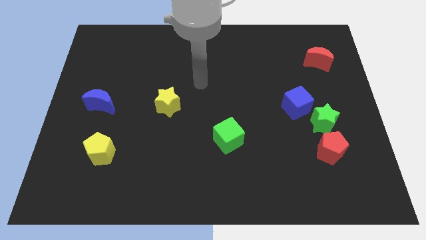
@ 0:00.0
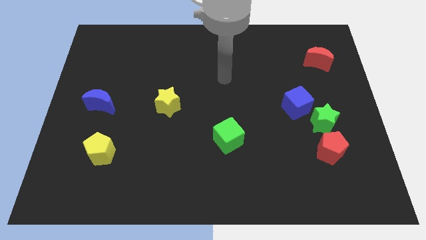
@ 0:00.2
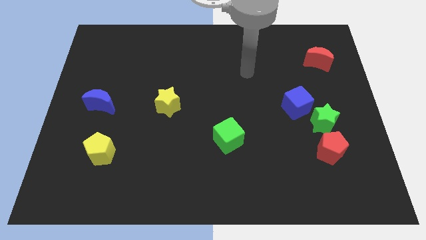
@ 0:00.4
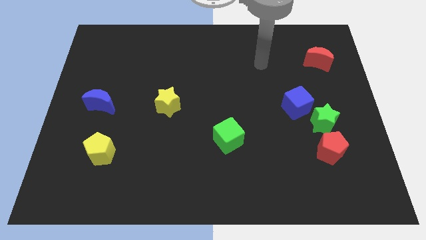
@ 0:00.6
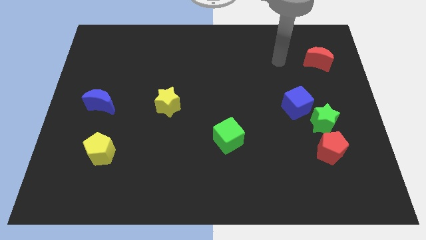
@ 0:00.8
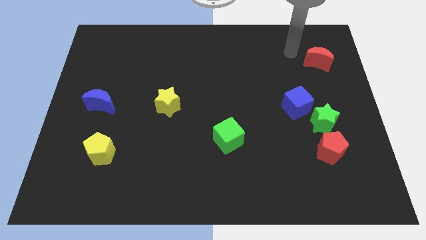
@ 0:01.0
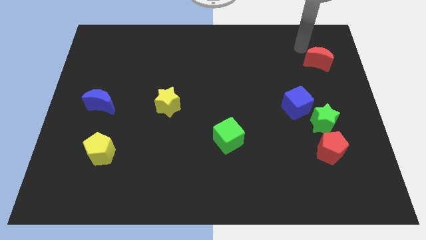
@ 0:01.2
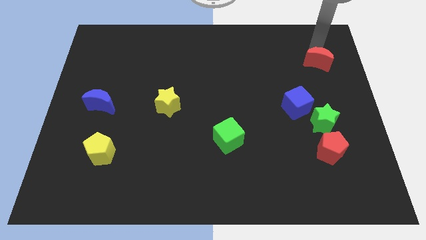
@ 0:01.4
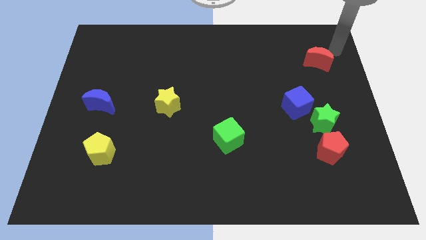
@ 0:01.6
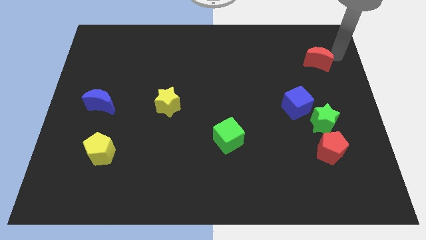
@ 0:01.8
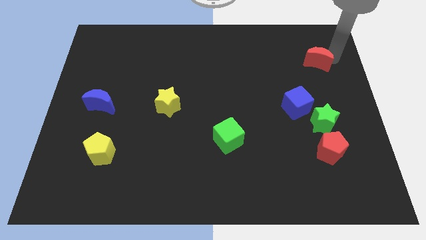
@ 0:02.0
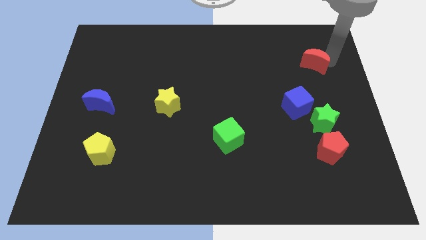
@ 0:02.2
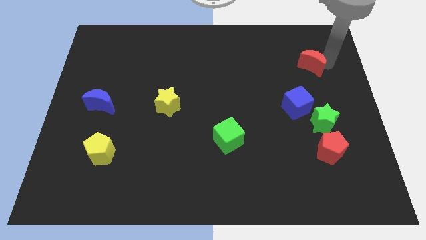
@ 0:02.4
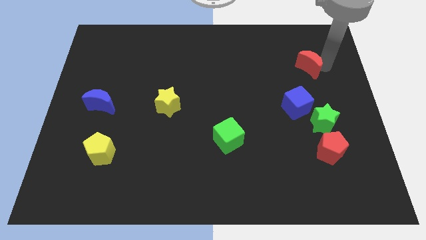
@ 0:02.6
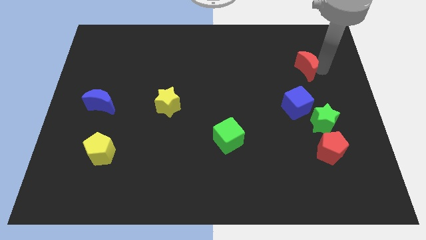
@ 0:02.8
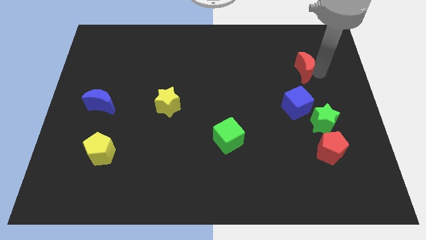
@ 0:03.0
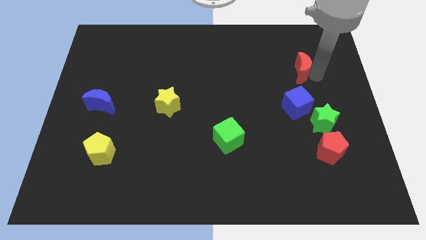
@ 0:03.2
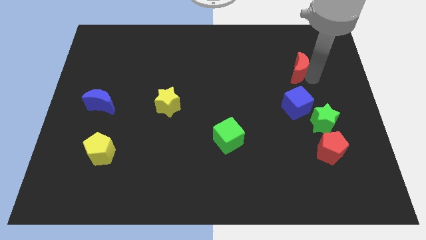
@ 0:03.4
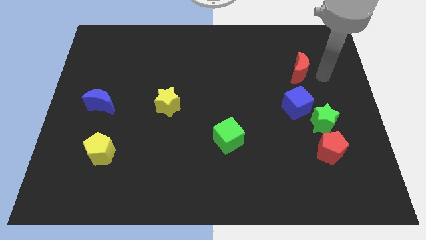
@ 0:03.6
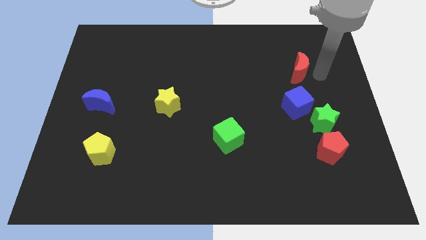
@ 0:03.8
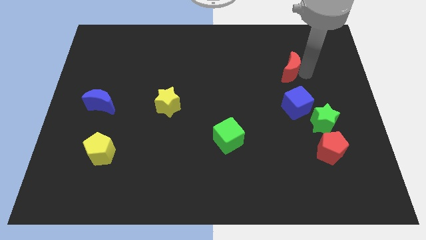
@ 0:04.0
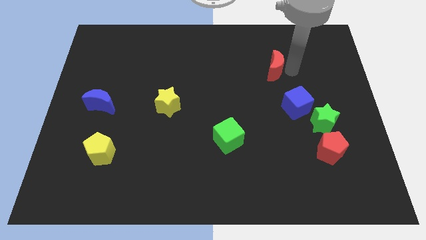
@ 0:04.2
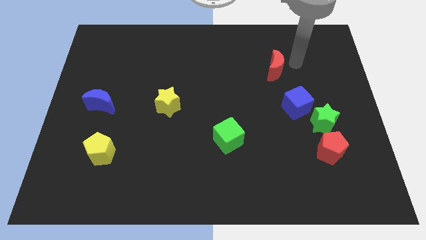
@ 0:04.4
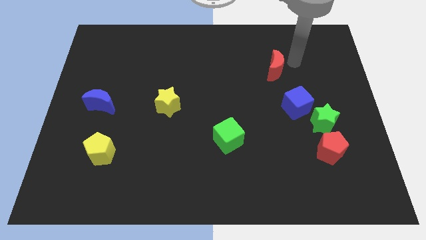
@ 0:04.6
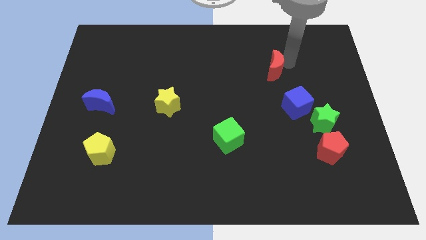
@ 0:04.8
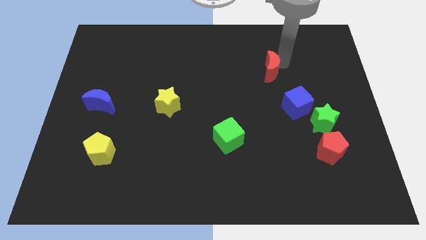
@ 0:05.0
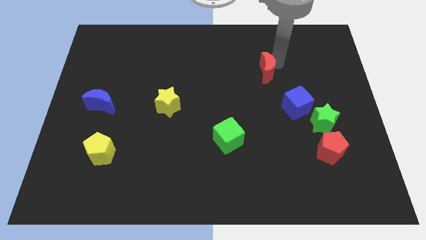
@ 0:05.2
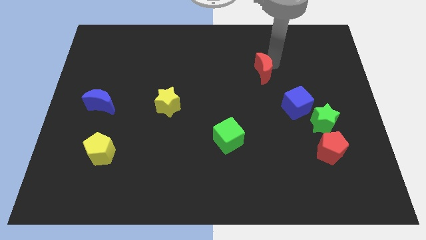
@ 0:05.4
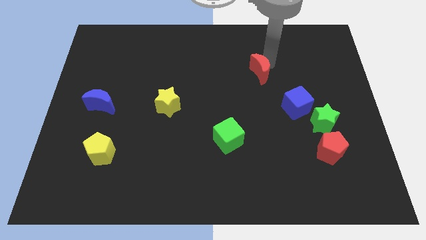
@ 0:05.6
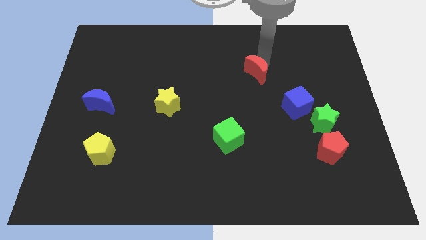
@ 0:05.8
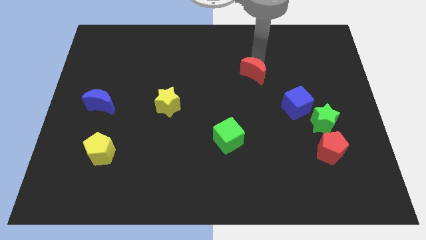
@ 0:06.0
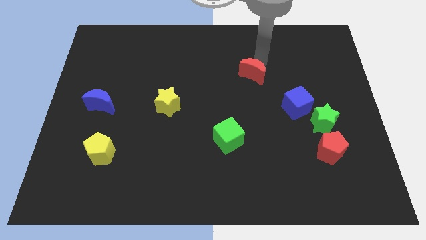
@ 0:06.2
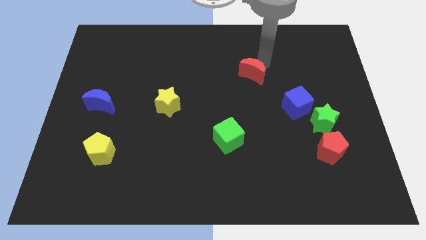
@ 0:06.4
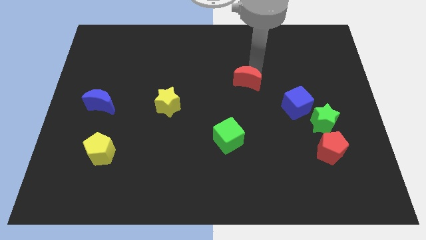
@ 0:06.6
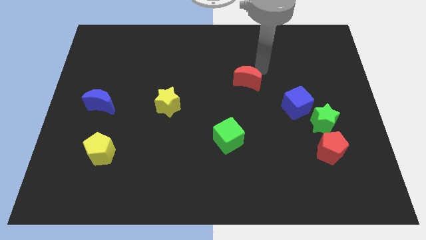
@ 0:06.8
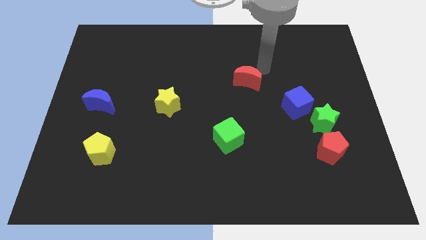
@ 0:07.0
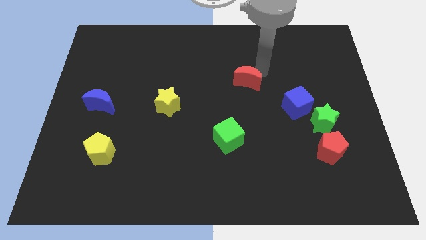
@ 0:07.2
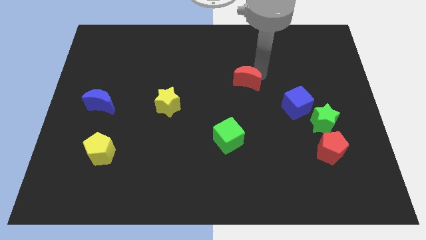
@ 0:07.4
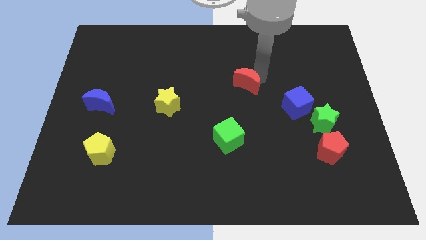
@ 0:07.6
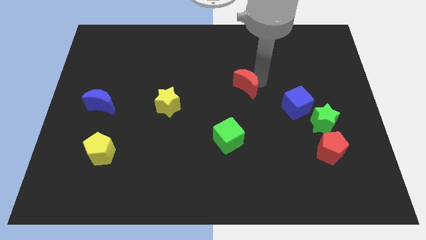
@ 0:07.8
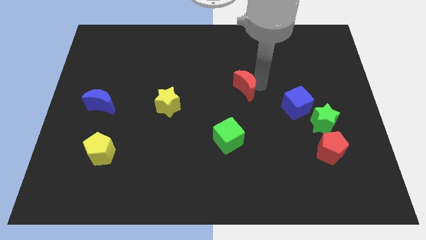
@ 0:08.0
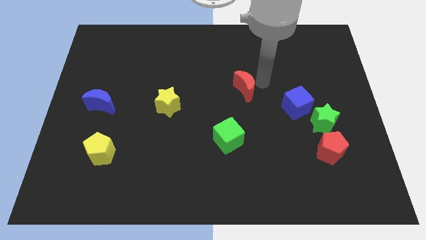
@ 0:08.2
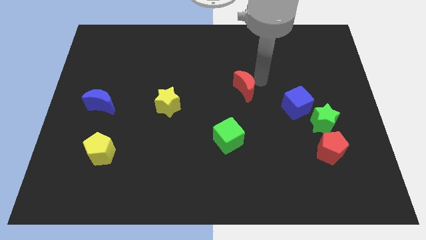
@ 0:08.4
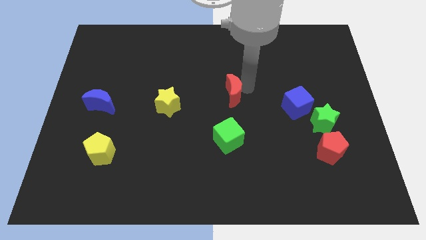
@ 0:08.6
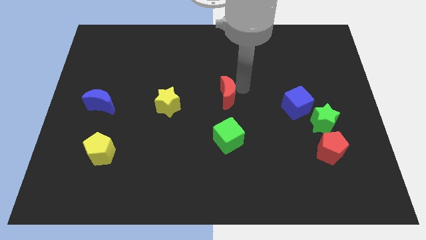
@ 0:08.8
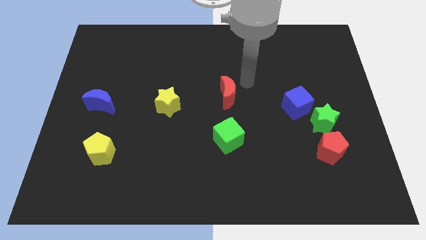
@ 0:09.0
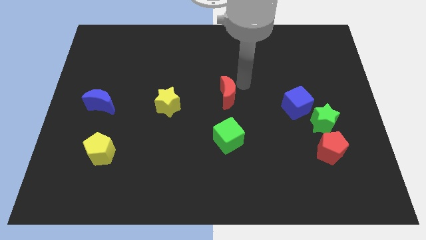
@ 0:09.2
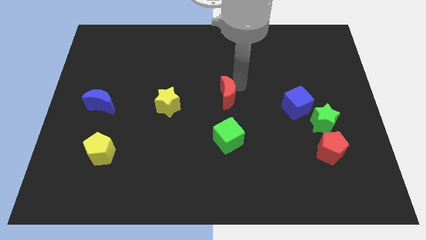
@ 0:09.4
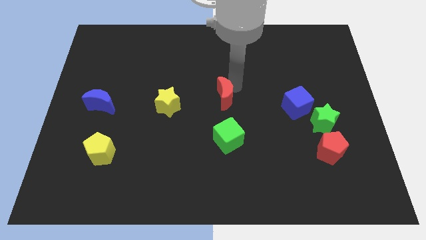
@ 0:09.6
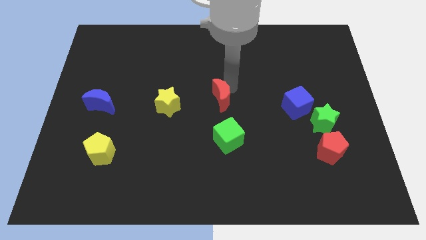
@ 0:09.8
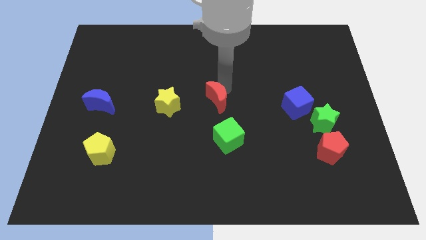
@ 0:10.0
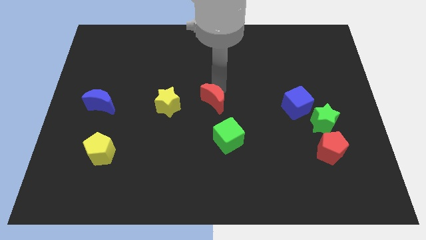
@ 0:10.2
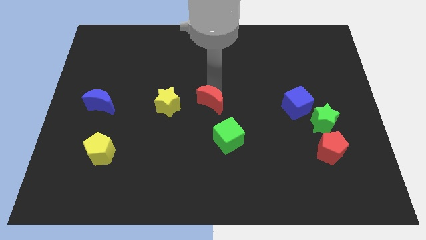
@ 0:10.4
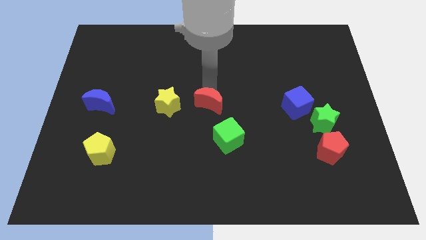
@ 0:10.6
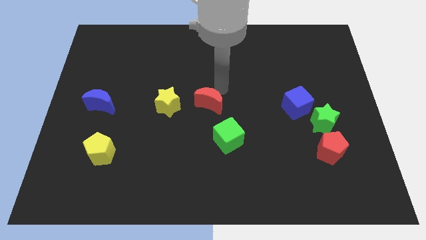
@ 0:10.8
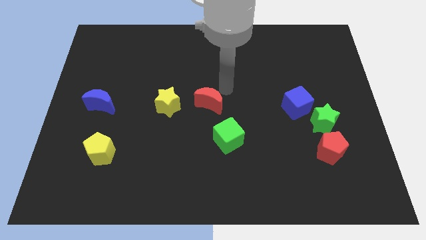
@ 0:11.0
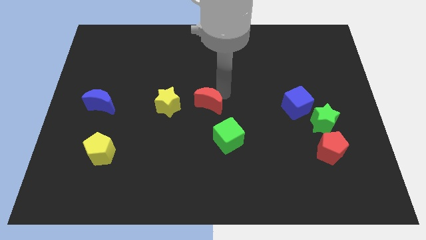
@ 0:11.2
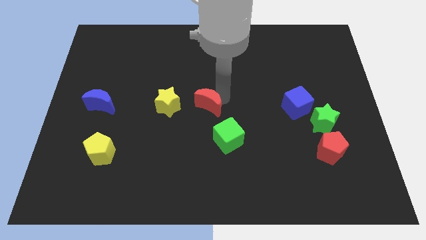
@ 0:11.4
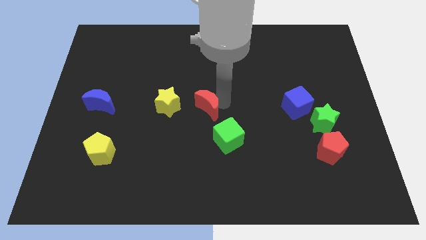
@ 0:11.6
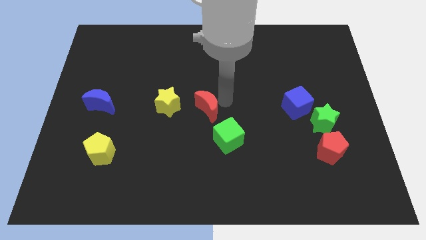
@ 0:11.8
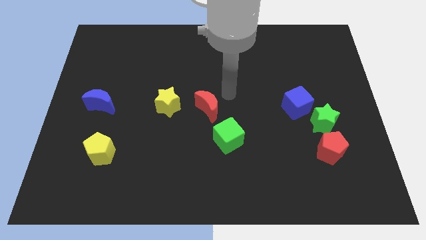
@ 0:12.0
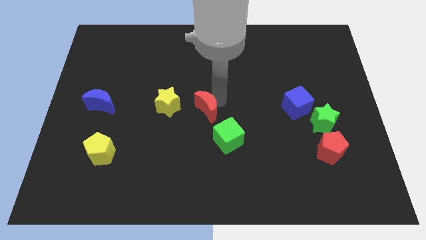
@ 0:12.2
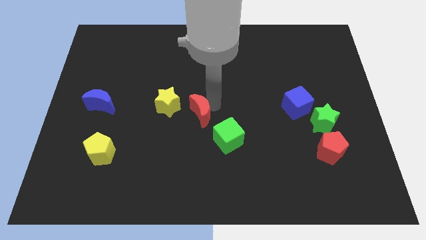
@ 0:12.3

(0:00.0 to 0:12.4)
push the red moon to the bottom right of the yellow star

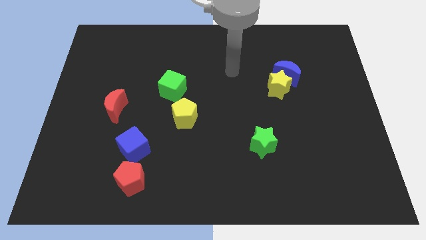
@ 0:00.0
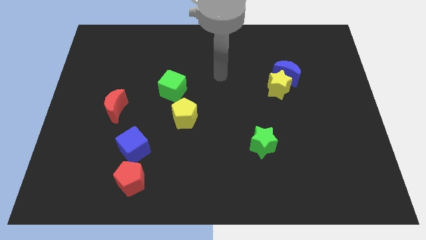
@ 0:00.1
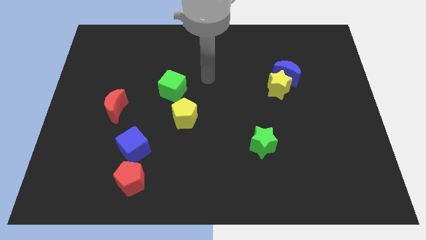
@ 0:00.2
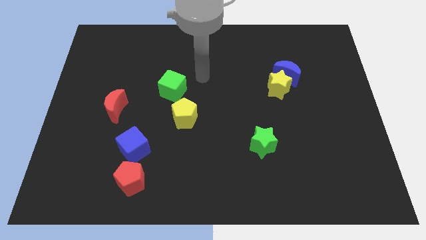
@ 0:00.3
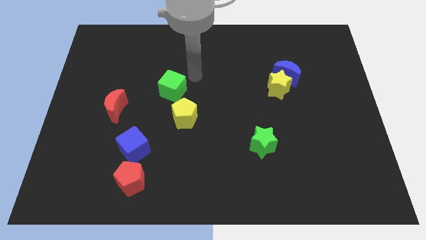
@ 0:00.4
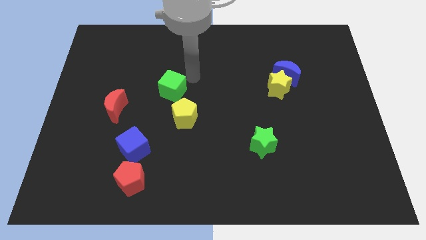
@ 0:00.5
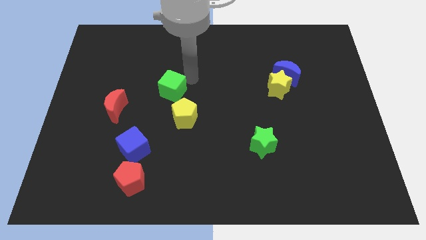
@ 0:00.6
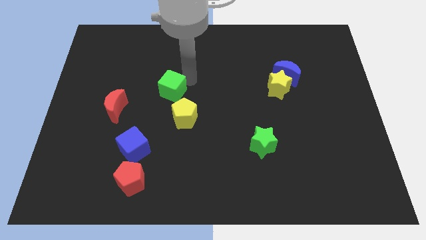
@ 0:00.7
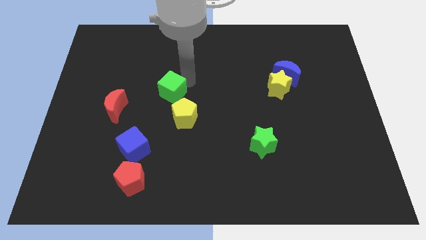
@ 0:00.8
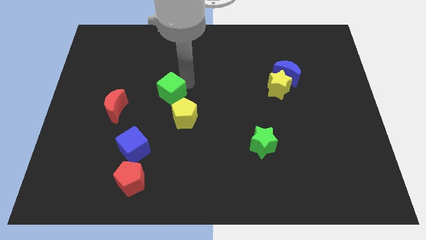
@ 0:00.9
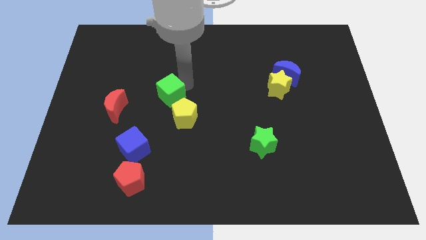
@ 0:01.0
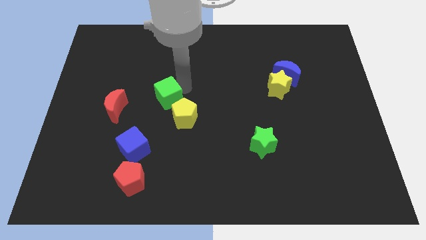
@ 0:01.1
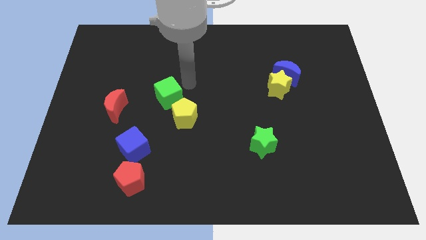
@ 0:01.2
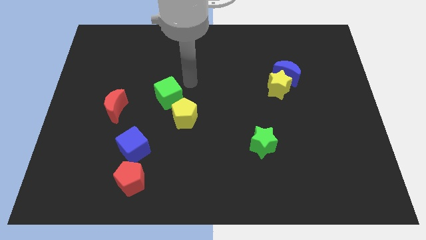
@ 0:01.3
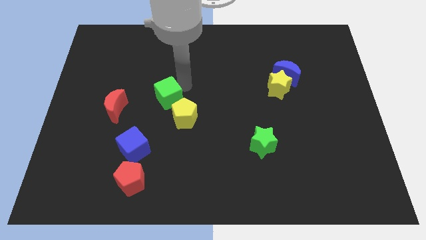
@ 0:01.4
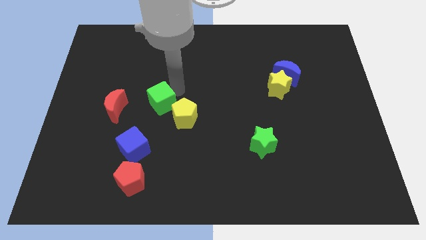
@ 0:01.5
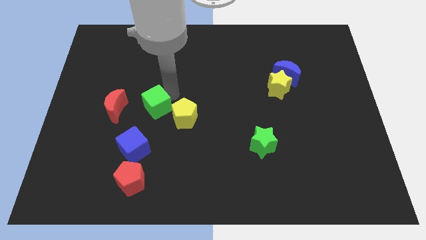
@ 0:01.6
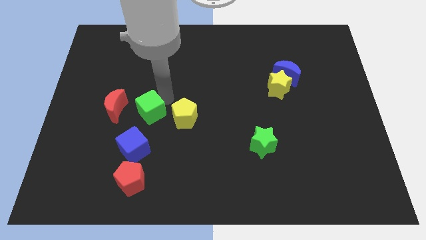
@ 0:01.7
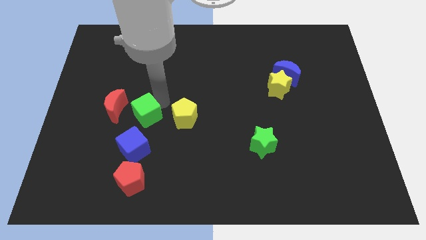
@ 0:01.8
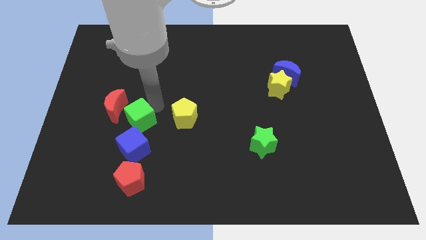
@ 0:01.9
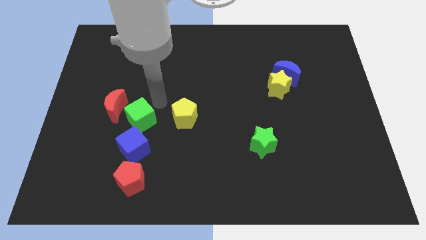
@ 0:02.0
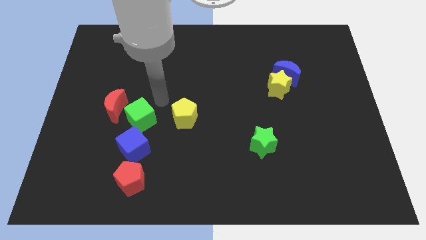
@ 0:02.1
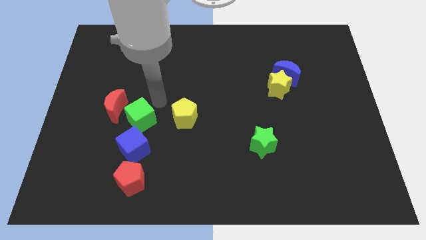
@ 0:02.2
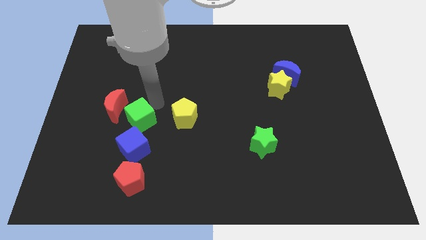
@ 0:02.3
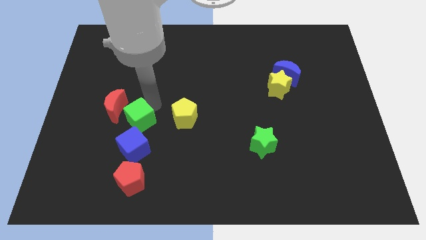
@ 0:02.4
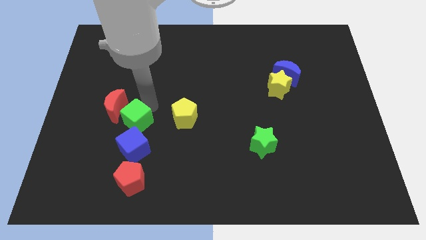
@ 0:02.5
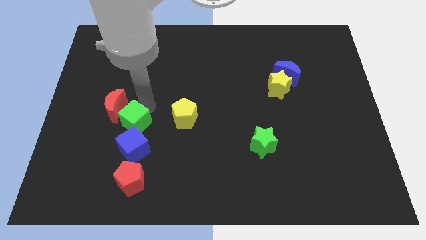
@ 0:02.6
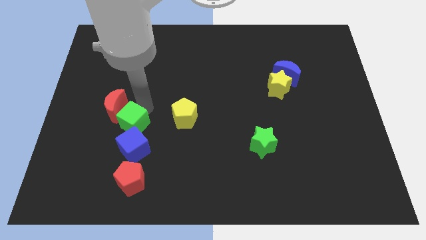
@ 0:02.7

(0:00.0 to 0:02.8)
slide the green cube below the red moon
